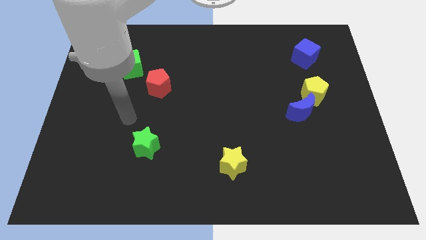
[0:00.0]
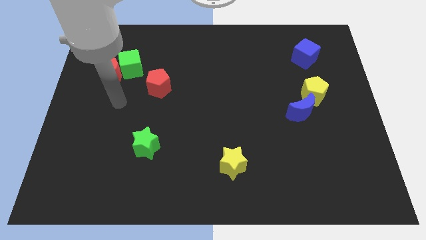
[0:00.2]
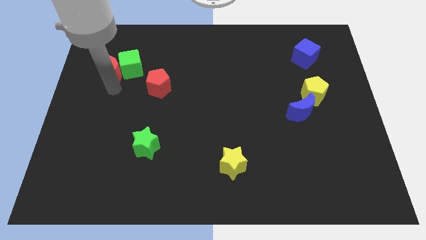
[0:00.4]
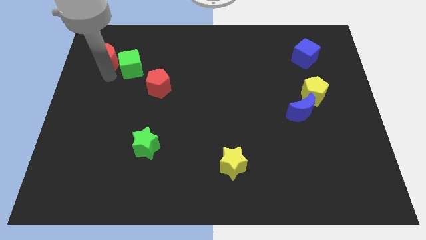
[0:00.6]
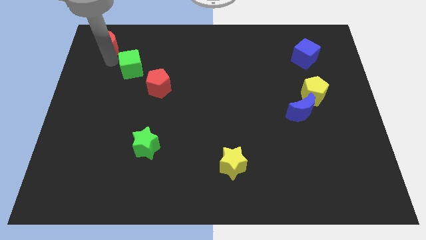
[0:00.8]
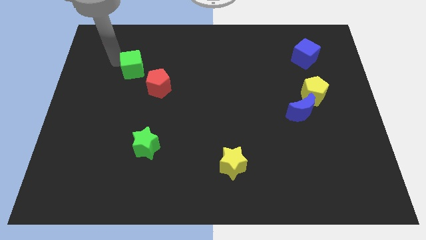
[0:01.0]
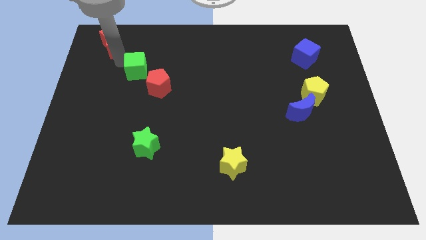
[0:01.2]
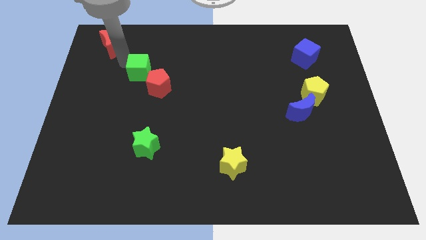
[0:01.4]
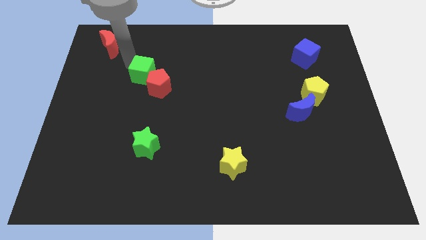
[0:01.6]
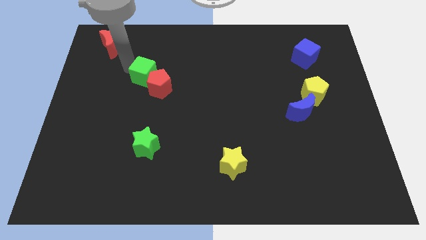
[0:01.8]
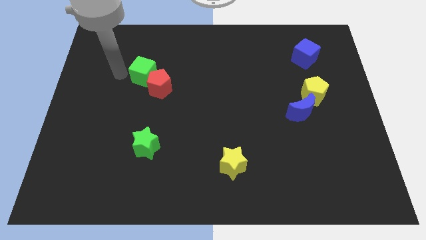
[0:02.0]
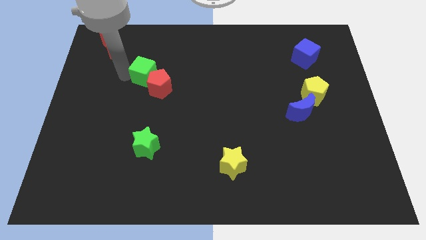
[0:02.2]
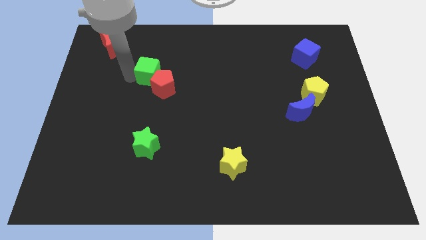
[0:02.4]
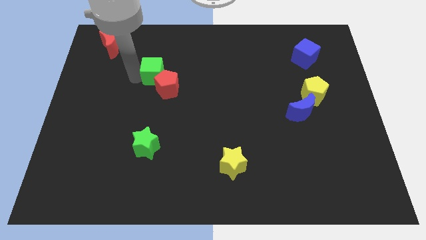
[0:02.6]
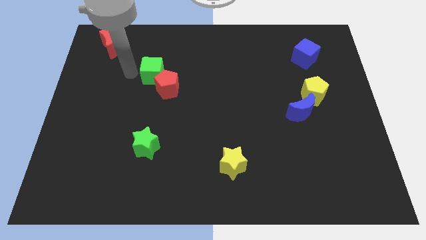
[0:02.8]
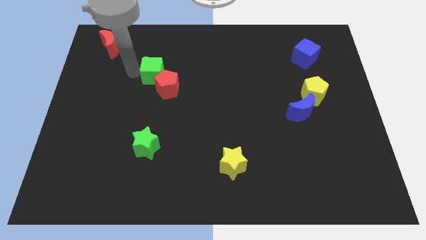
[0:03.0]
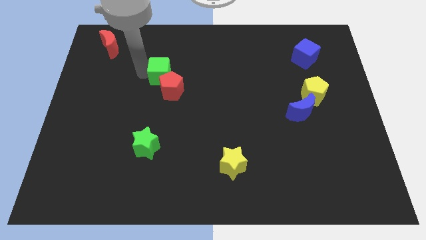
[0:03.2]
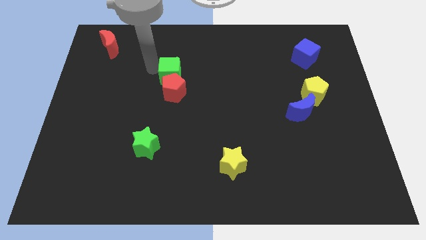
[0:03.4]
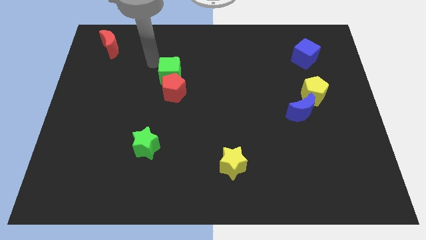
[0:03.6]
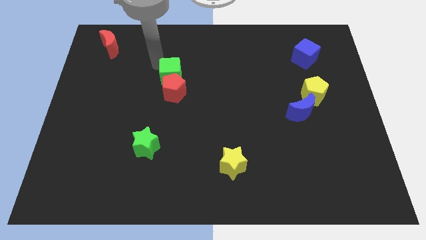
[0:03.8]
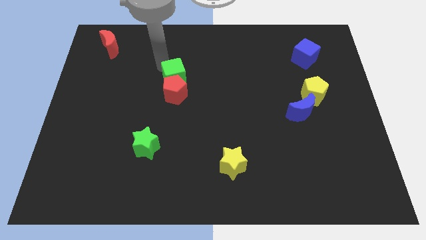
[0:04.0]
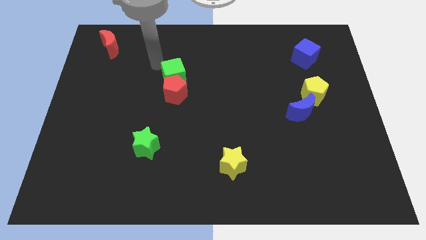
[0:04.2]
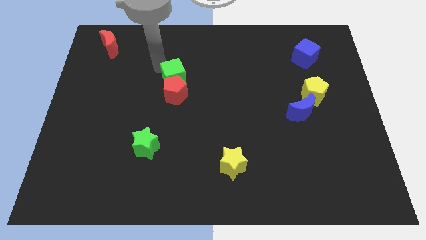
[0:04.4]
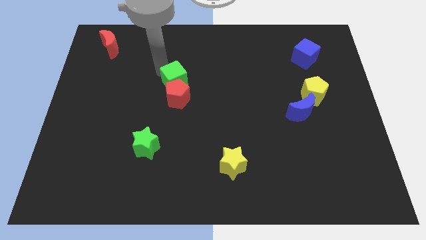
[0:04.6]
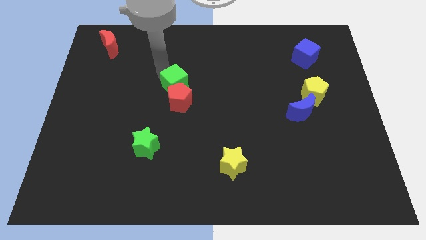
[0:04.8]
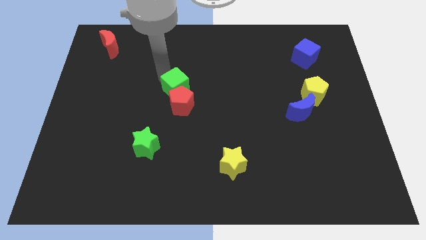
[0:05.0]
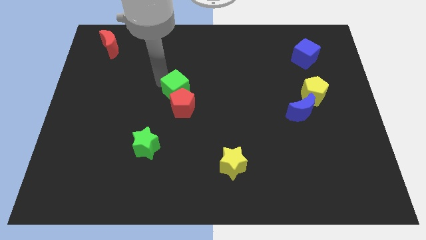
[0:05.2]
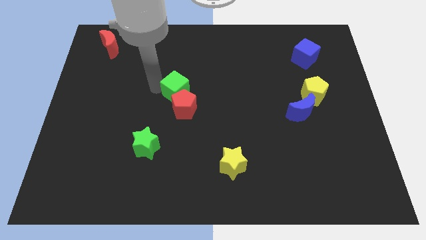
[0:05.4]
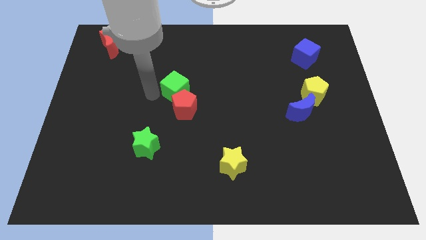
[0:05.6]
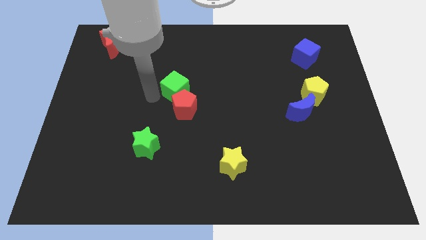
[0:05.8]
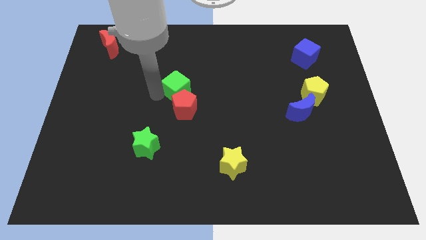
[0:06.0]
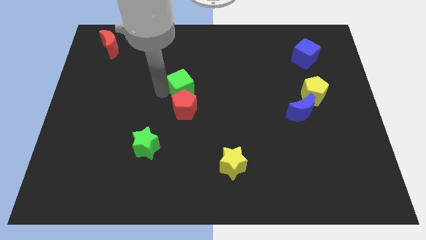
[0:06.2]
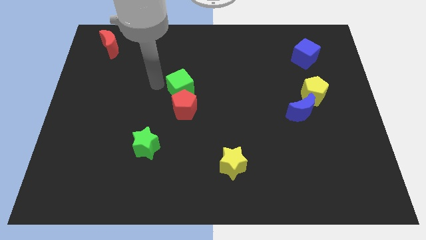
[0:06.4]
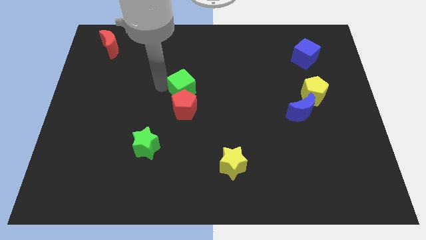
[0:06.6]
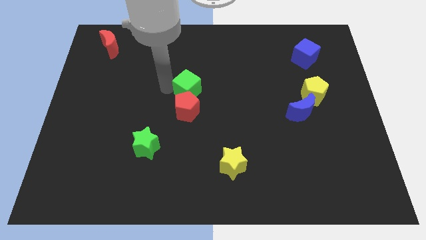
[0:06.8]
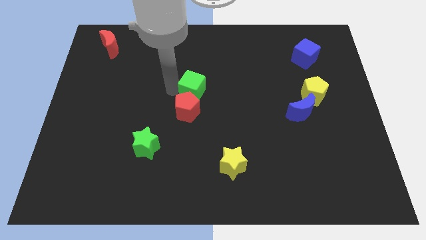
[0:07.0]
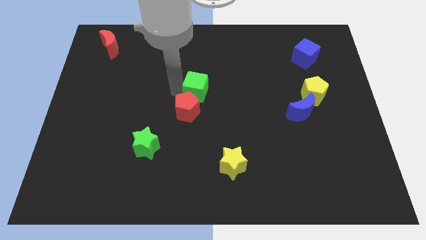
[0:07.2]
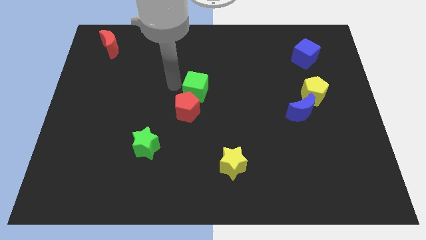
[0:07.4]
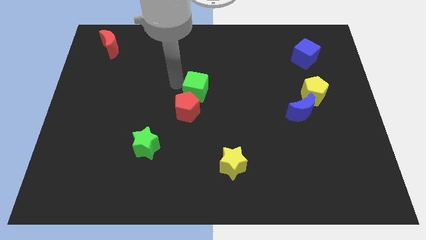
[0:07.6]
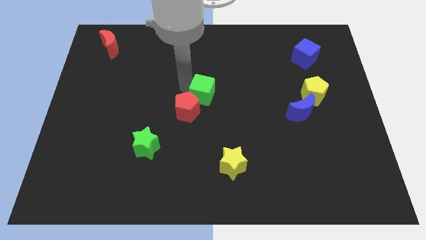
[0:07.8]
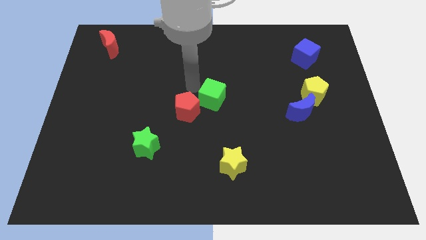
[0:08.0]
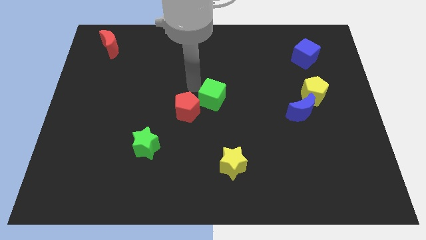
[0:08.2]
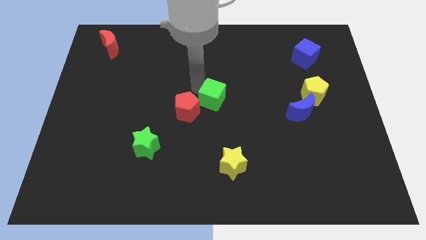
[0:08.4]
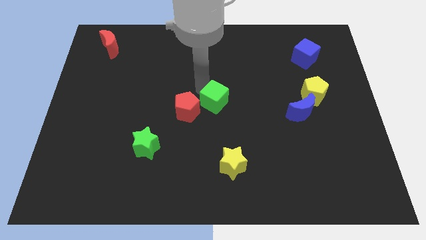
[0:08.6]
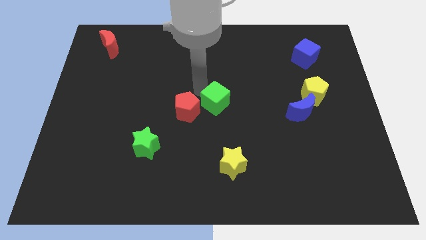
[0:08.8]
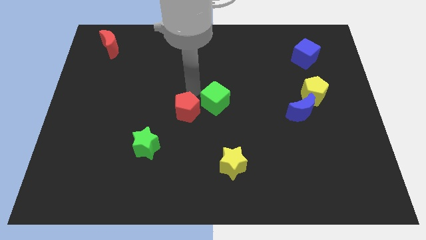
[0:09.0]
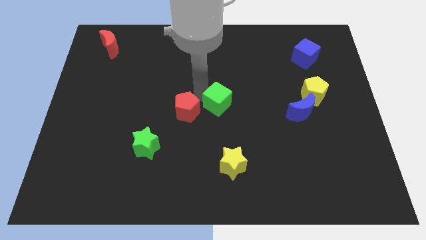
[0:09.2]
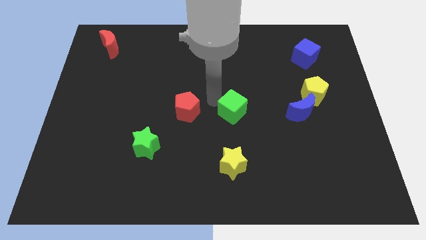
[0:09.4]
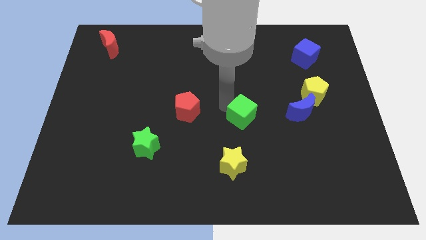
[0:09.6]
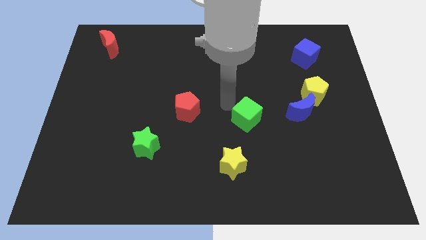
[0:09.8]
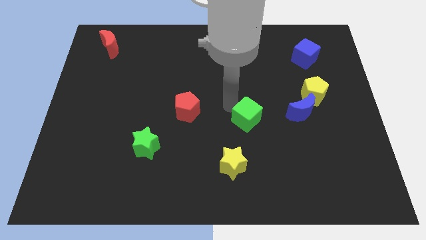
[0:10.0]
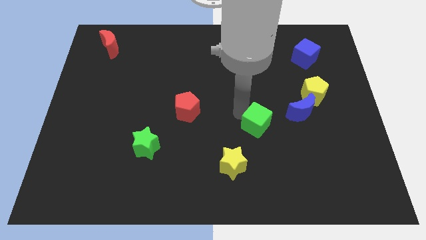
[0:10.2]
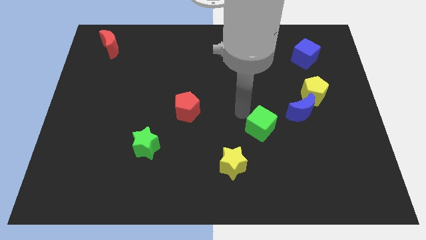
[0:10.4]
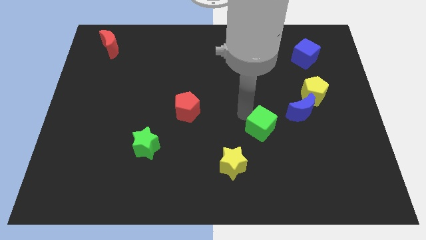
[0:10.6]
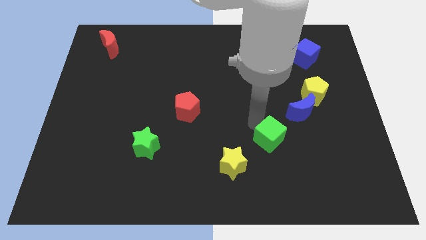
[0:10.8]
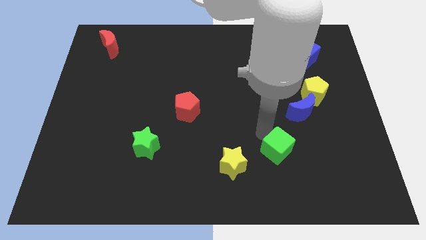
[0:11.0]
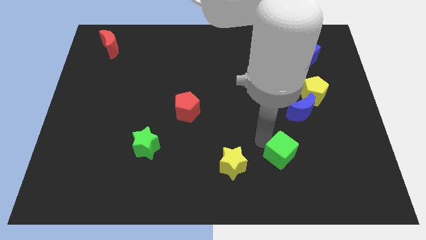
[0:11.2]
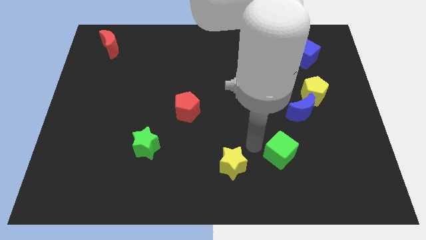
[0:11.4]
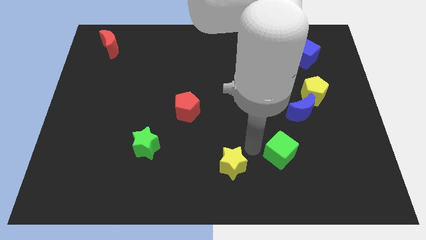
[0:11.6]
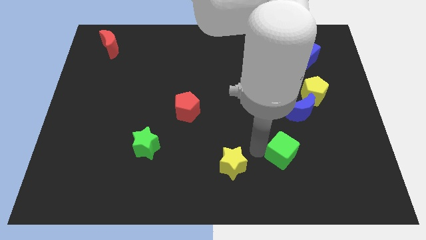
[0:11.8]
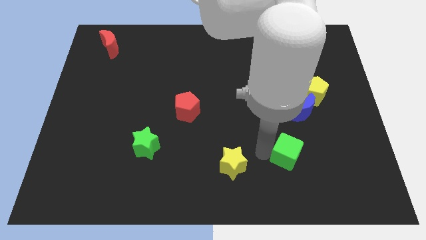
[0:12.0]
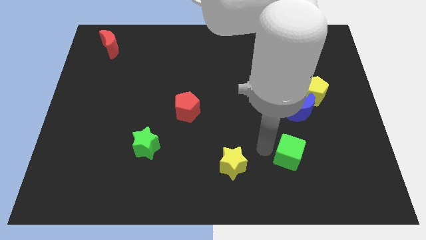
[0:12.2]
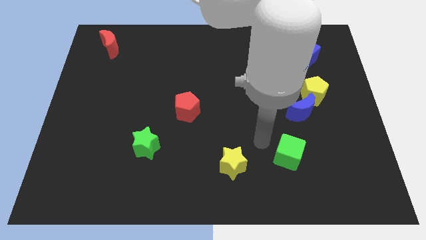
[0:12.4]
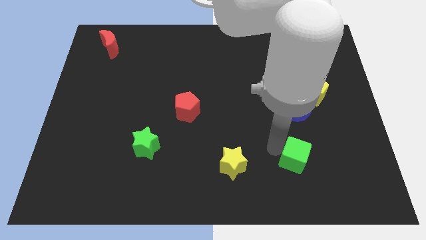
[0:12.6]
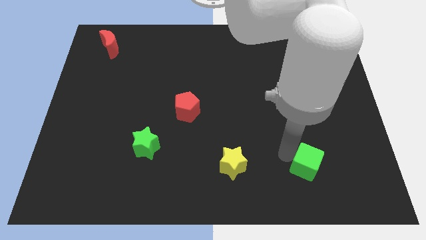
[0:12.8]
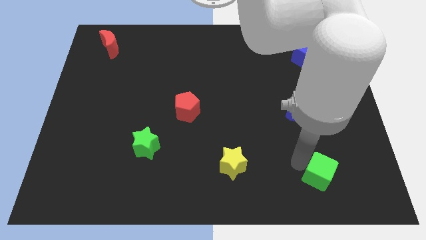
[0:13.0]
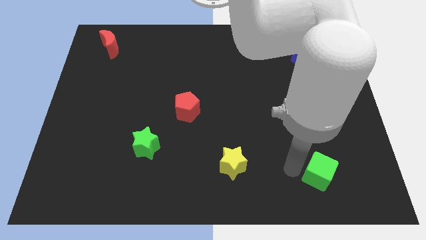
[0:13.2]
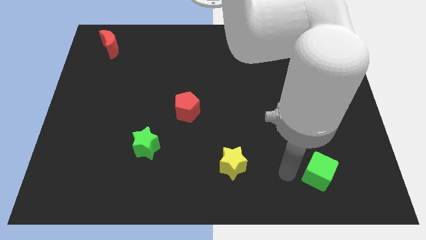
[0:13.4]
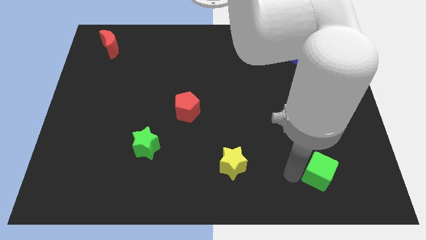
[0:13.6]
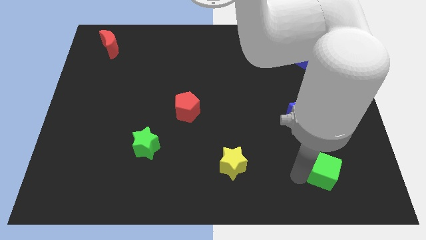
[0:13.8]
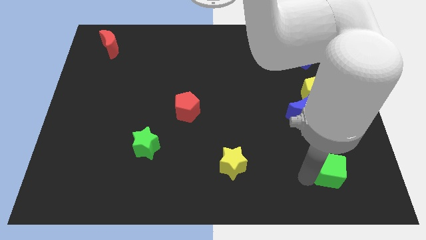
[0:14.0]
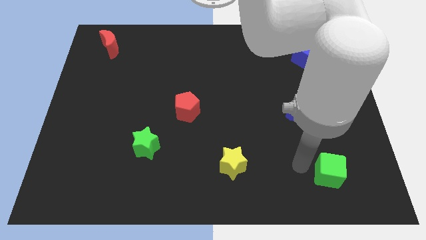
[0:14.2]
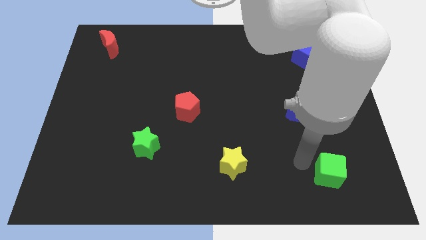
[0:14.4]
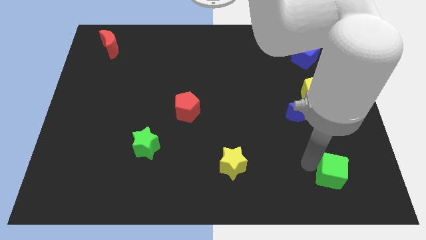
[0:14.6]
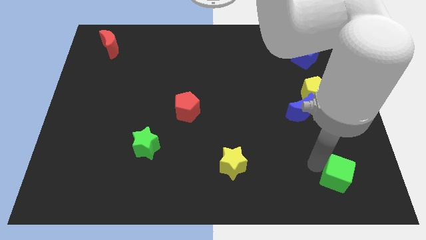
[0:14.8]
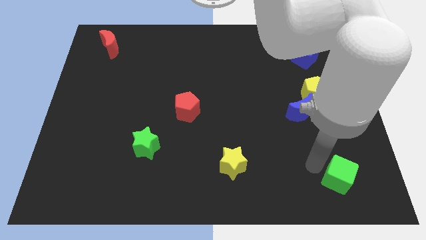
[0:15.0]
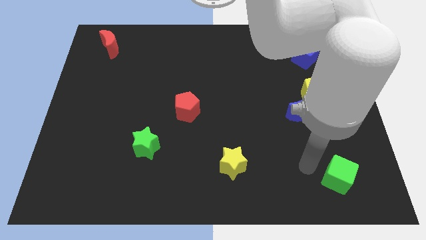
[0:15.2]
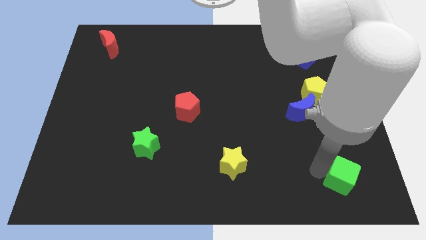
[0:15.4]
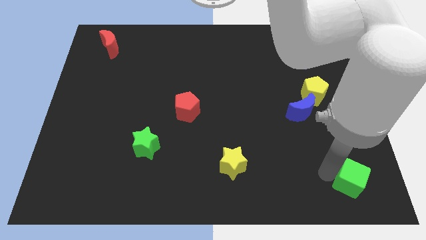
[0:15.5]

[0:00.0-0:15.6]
push the green cube to the lower right corner
